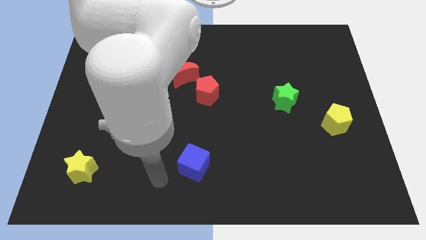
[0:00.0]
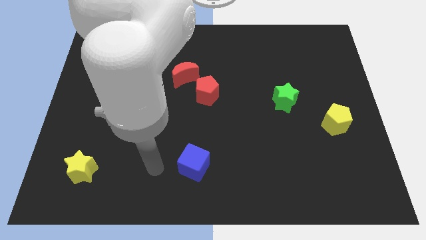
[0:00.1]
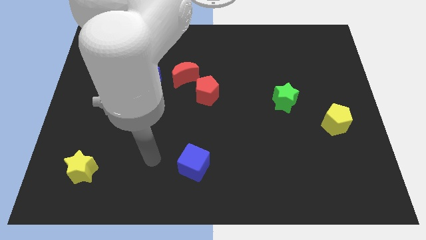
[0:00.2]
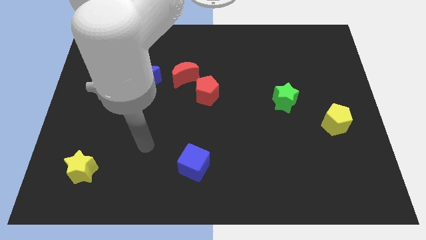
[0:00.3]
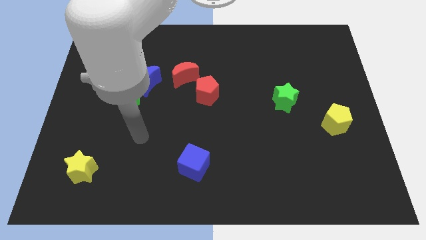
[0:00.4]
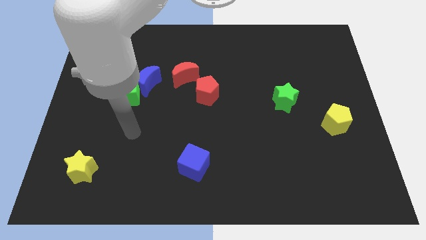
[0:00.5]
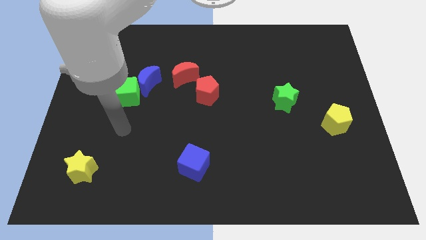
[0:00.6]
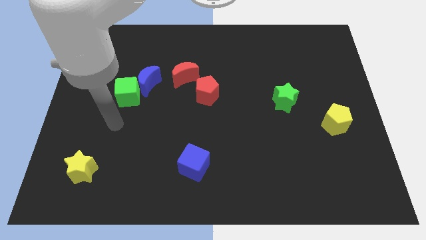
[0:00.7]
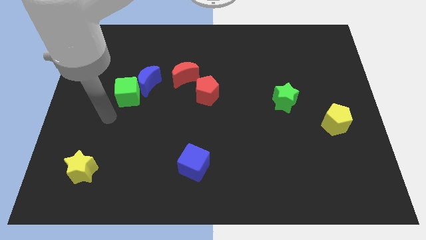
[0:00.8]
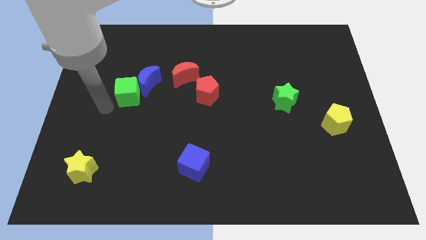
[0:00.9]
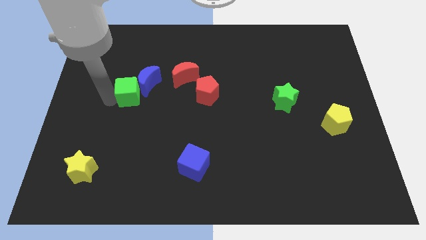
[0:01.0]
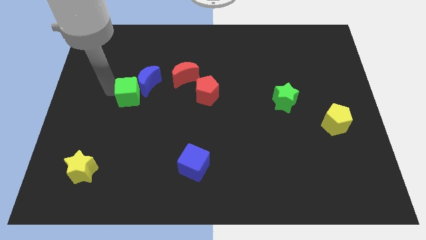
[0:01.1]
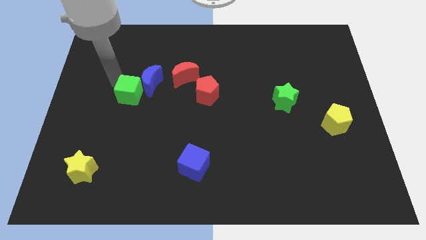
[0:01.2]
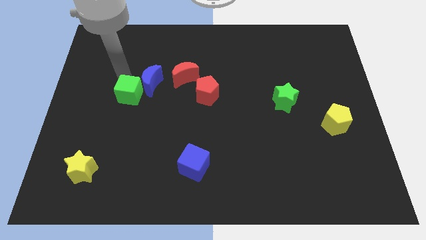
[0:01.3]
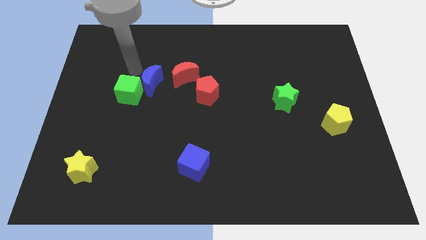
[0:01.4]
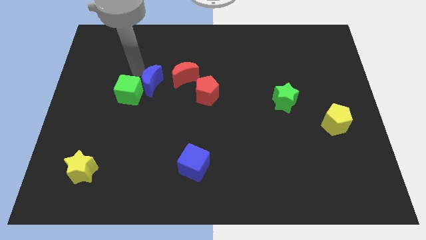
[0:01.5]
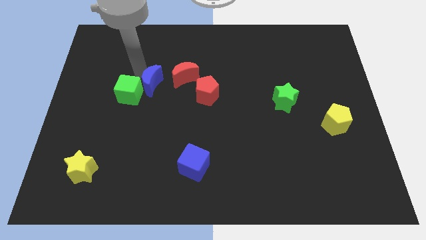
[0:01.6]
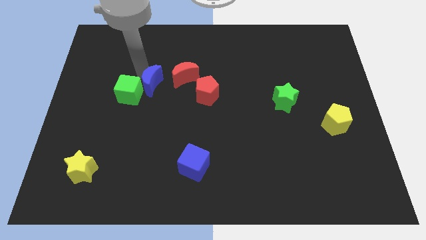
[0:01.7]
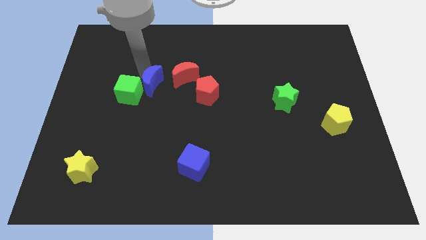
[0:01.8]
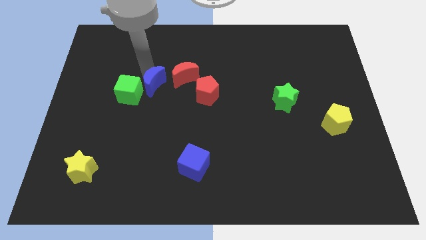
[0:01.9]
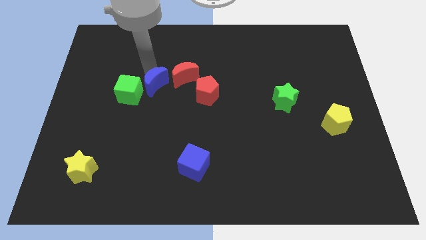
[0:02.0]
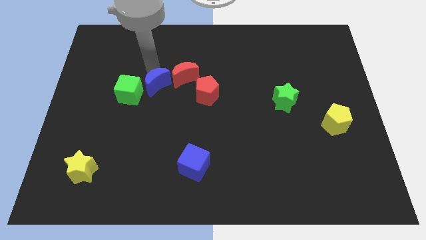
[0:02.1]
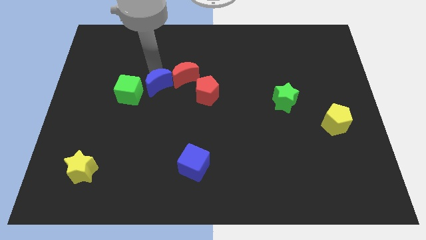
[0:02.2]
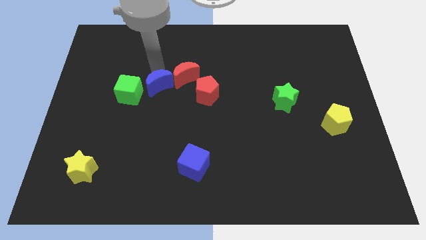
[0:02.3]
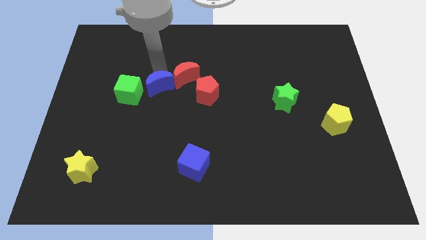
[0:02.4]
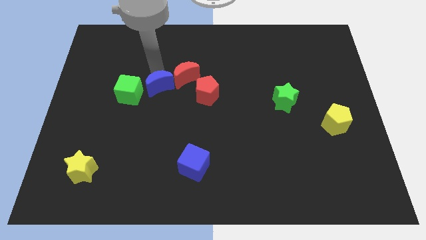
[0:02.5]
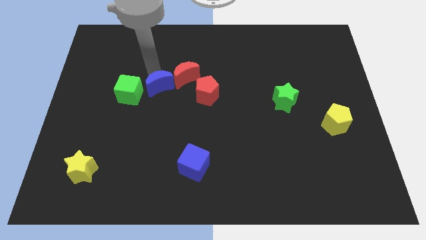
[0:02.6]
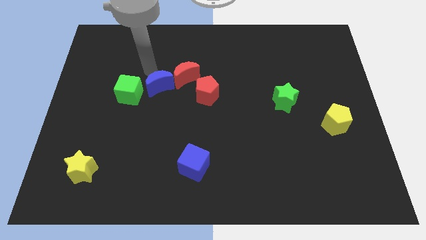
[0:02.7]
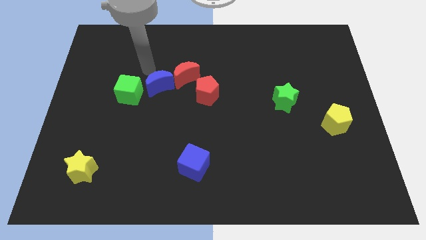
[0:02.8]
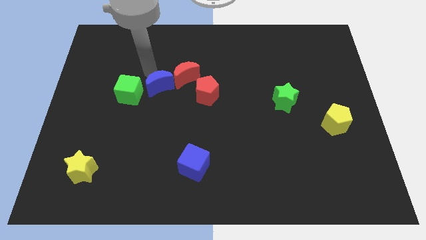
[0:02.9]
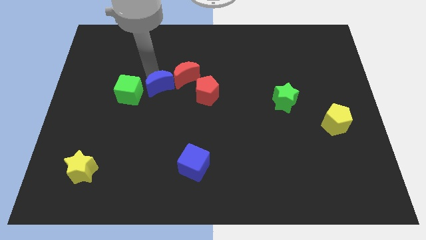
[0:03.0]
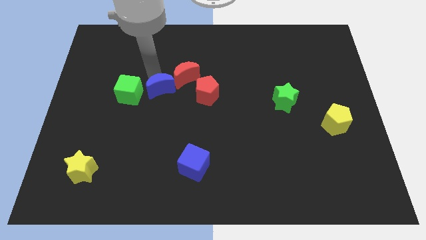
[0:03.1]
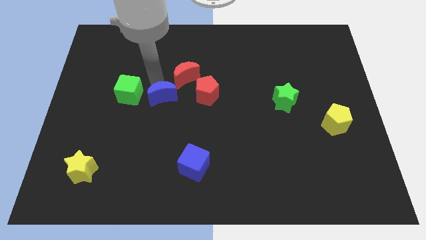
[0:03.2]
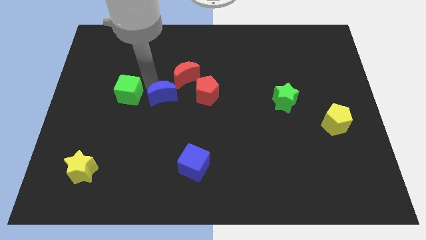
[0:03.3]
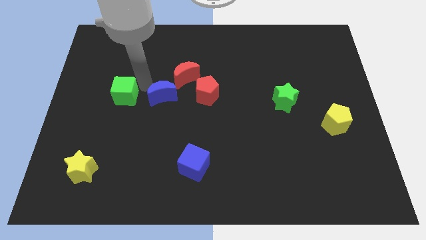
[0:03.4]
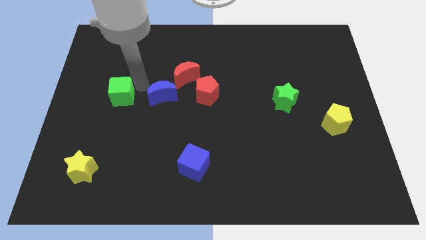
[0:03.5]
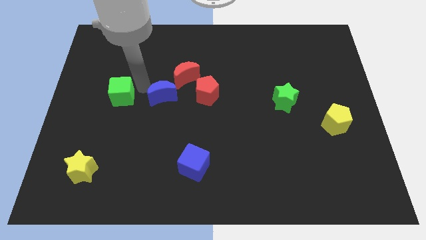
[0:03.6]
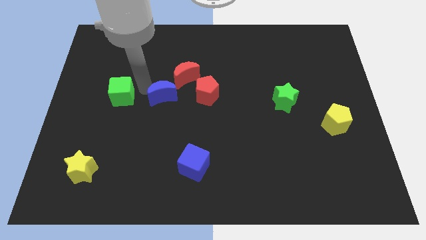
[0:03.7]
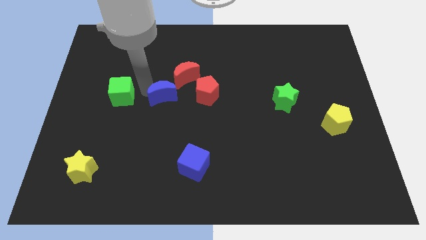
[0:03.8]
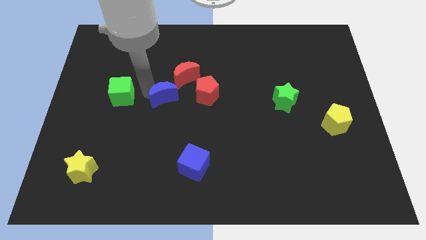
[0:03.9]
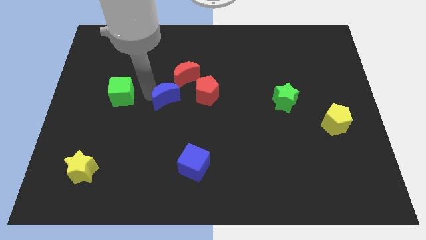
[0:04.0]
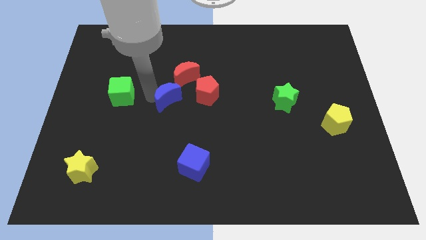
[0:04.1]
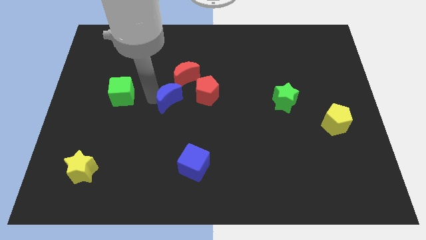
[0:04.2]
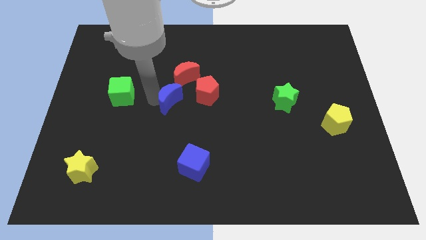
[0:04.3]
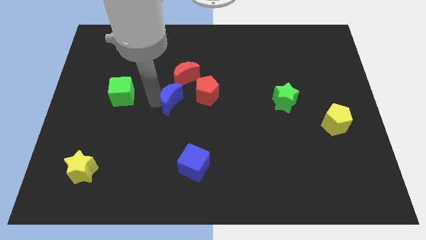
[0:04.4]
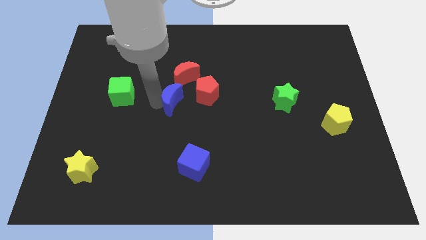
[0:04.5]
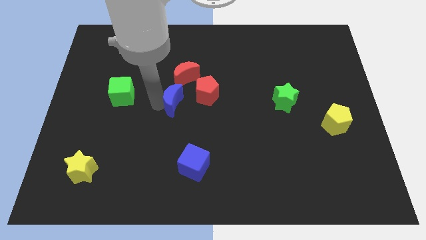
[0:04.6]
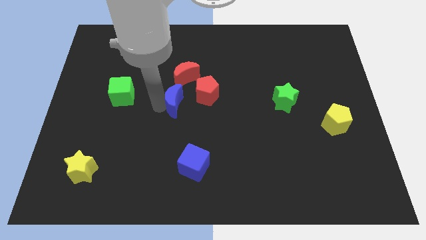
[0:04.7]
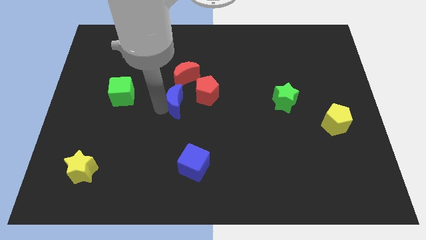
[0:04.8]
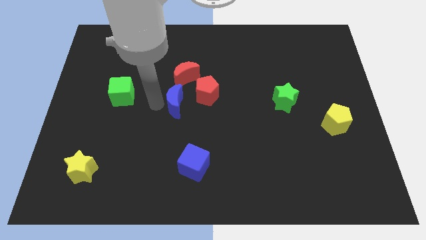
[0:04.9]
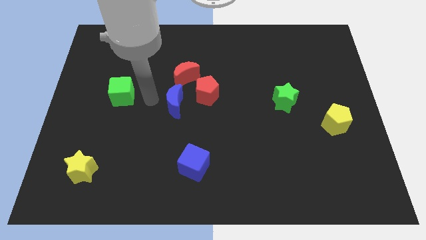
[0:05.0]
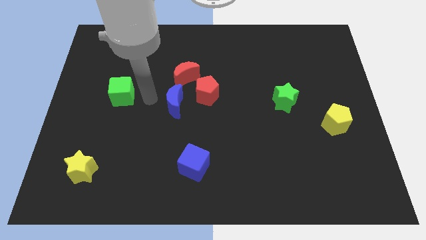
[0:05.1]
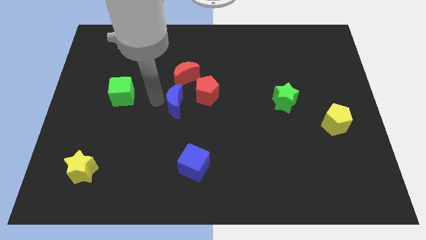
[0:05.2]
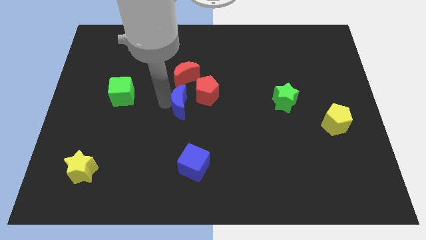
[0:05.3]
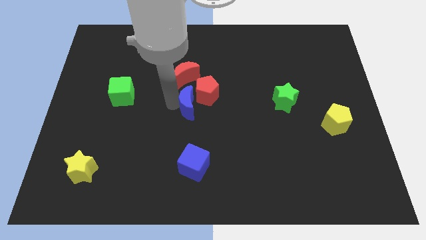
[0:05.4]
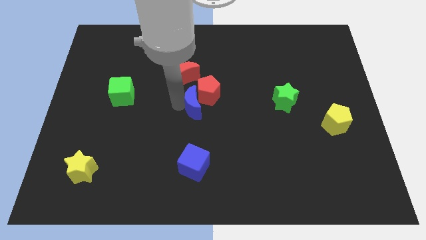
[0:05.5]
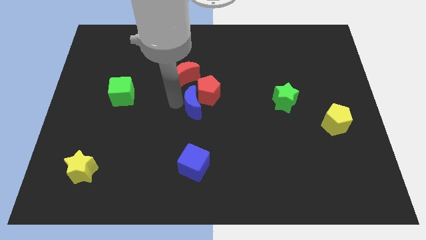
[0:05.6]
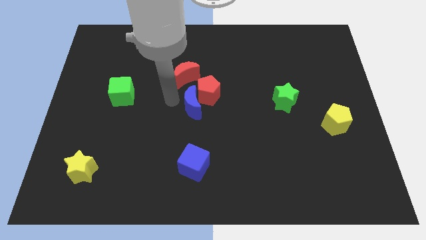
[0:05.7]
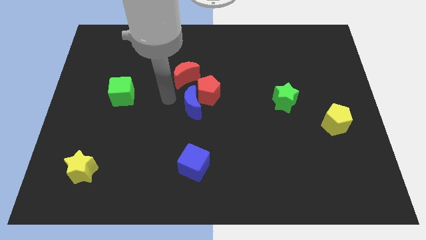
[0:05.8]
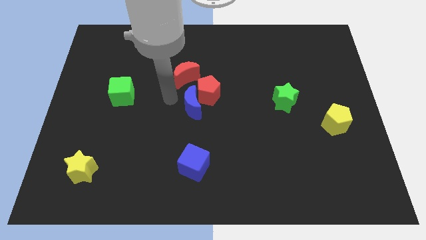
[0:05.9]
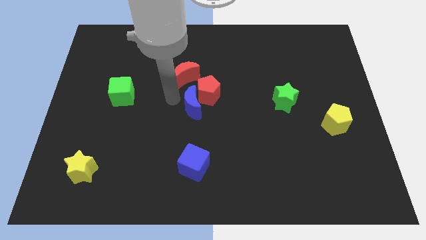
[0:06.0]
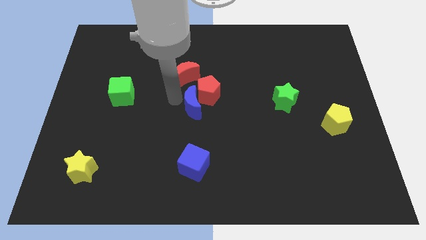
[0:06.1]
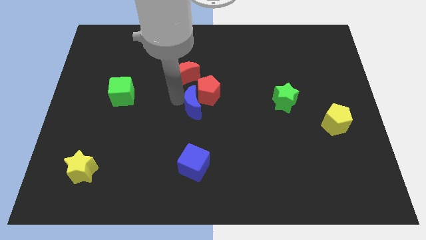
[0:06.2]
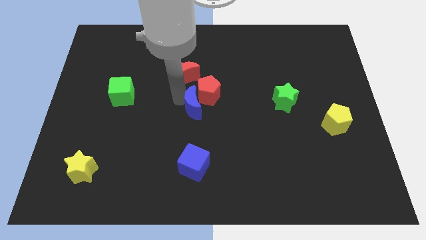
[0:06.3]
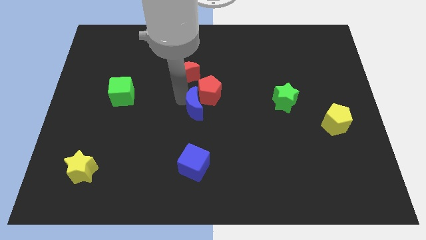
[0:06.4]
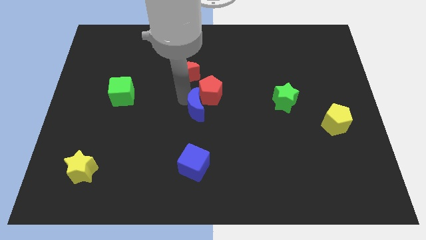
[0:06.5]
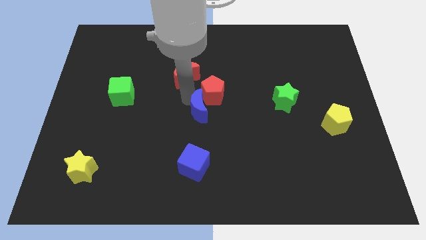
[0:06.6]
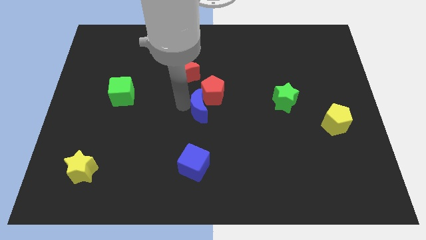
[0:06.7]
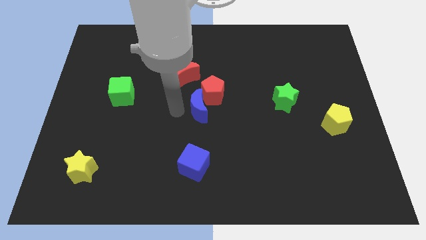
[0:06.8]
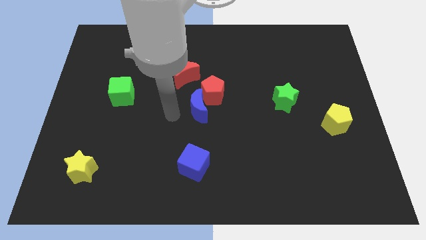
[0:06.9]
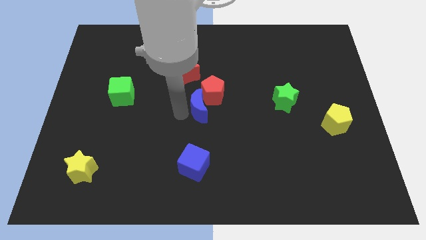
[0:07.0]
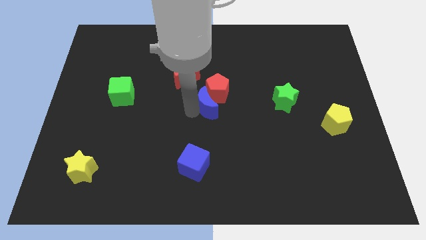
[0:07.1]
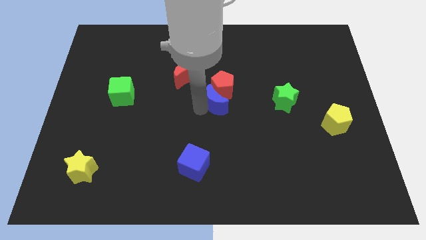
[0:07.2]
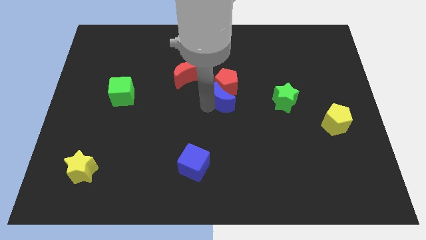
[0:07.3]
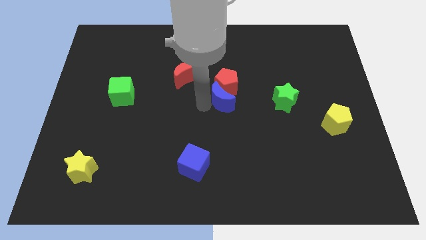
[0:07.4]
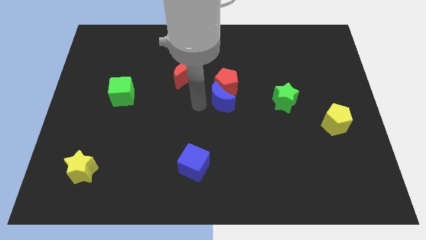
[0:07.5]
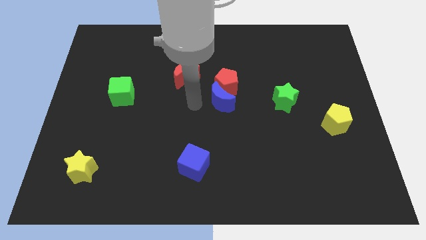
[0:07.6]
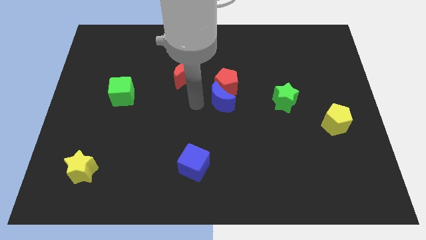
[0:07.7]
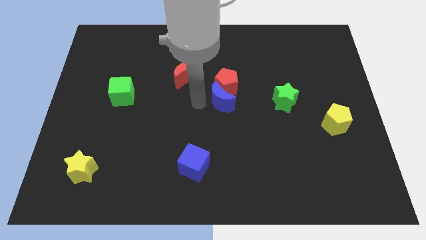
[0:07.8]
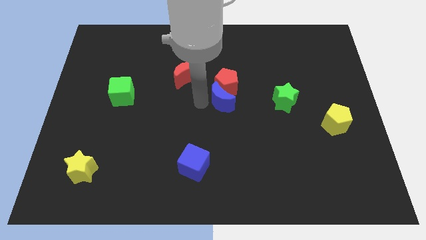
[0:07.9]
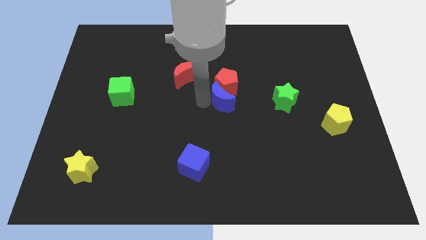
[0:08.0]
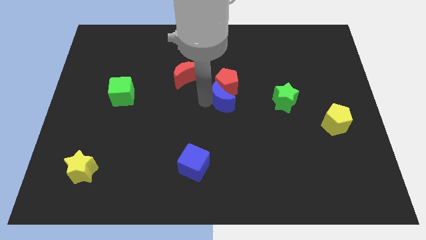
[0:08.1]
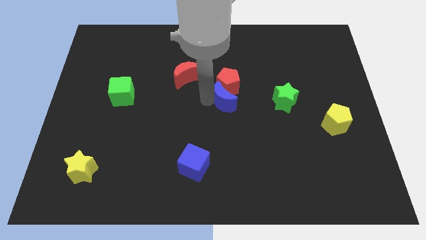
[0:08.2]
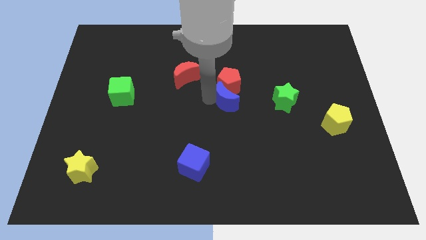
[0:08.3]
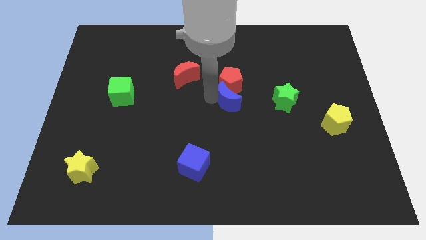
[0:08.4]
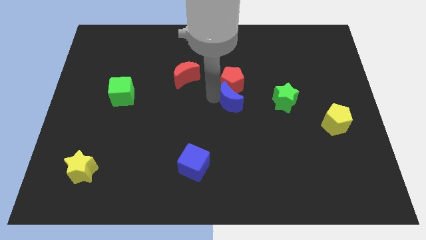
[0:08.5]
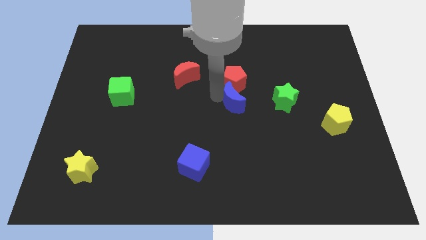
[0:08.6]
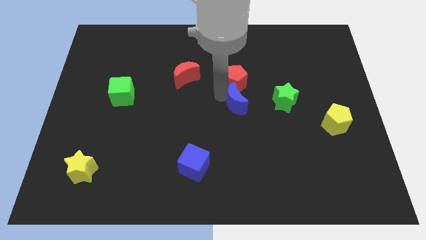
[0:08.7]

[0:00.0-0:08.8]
push the blue moon to the right
